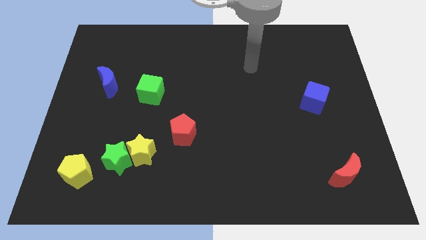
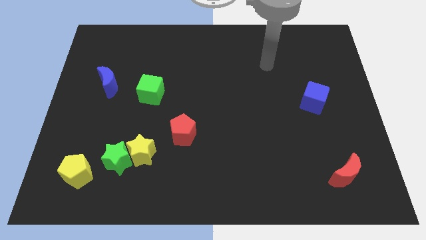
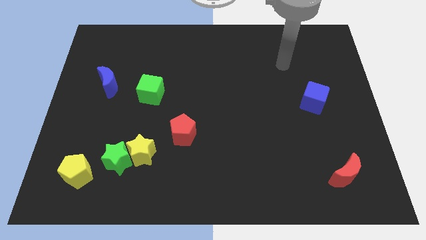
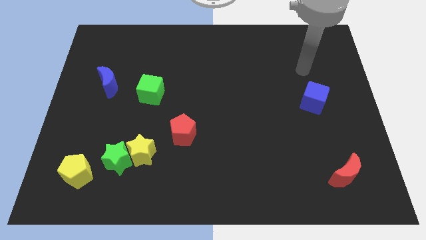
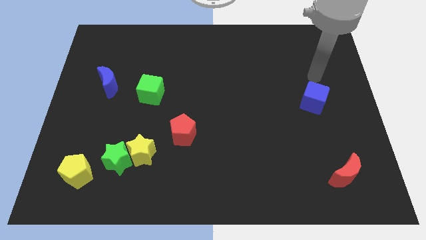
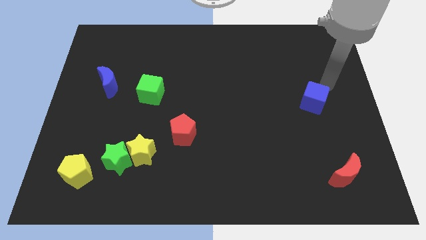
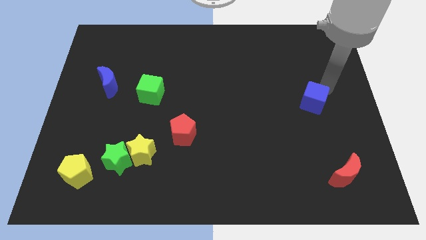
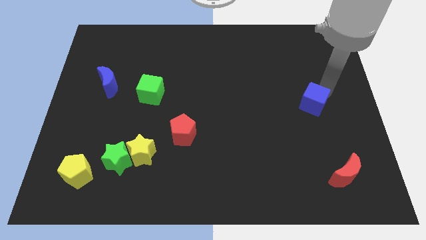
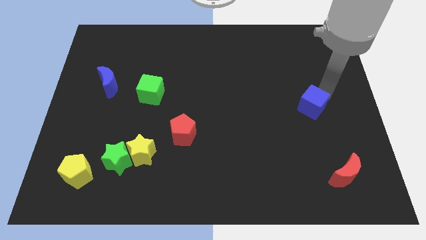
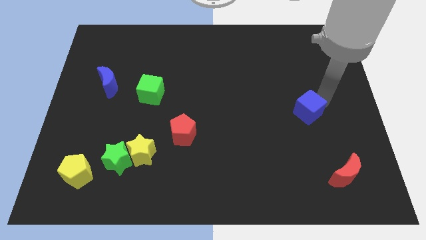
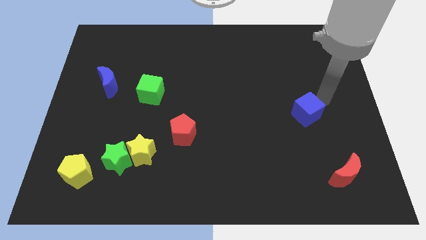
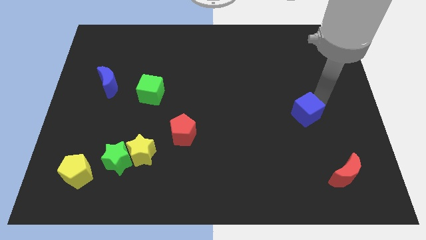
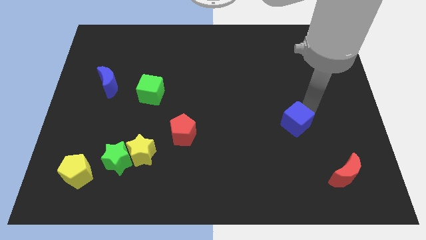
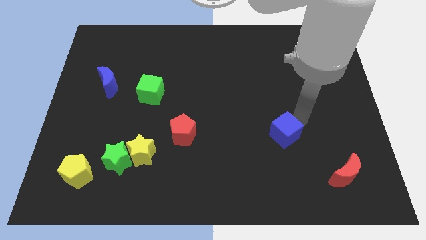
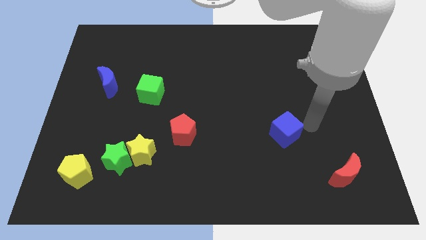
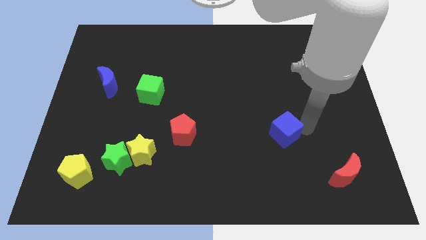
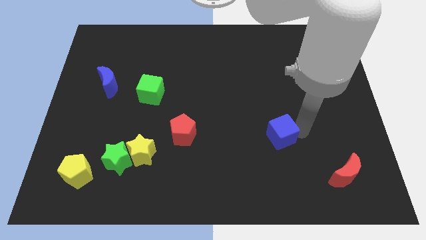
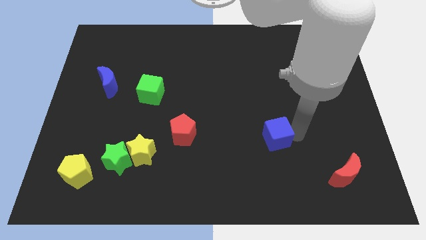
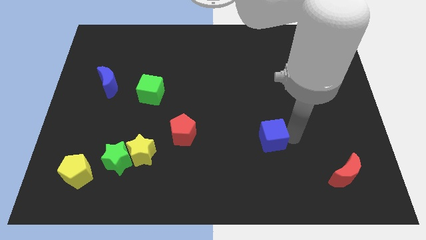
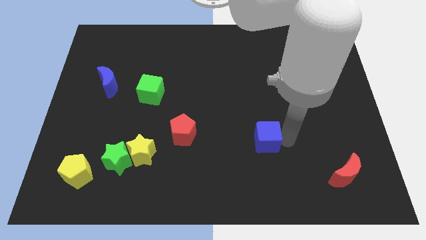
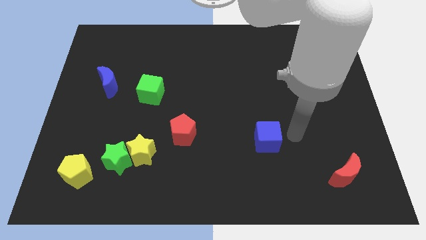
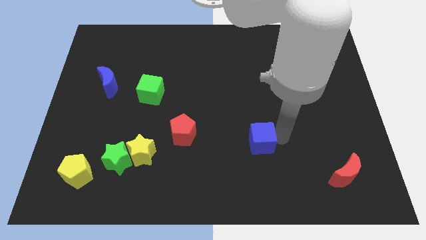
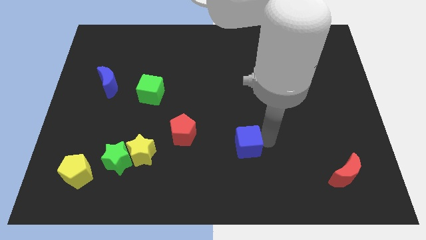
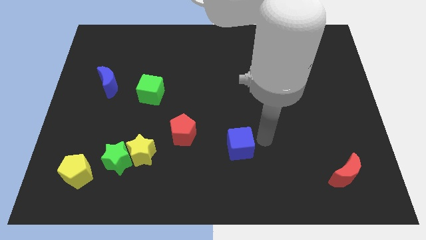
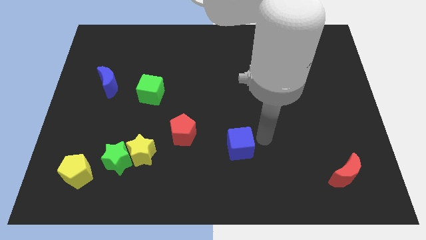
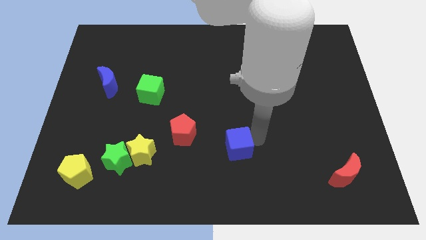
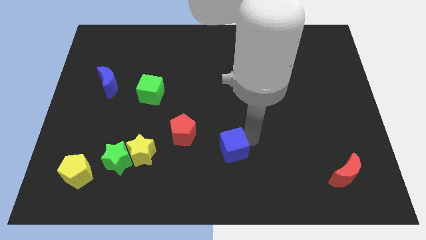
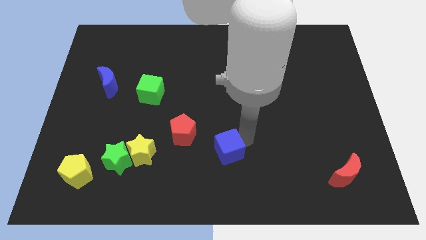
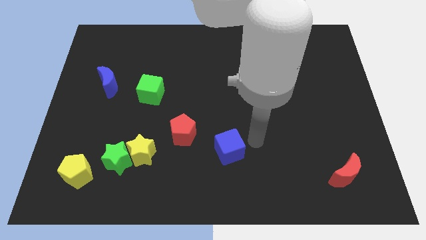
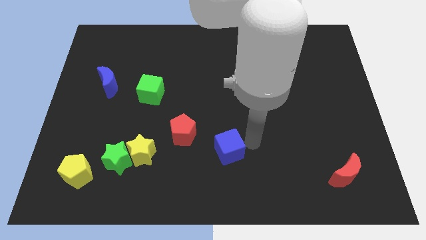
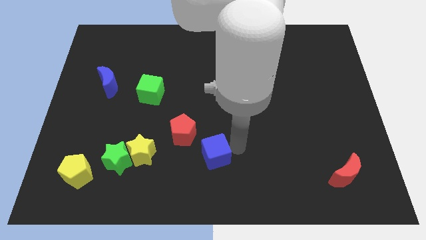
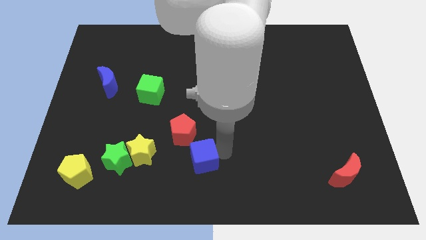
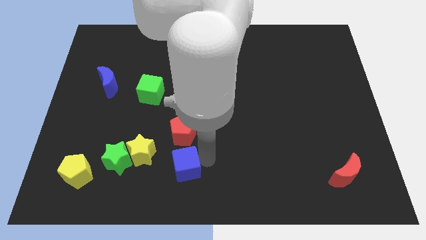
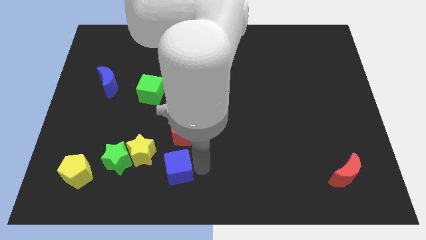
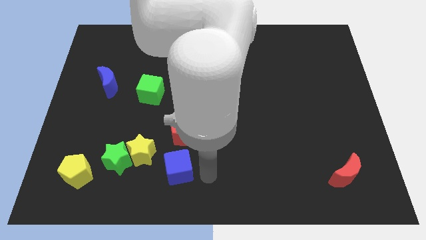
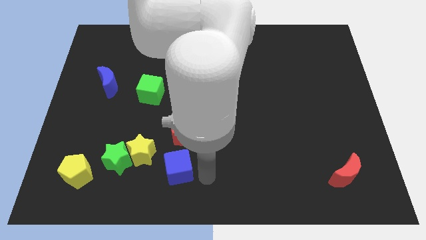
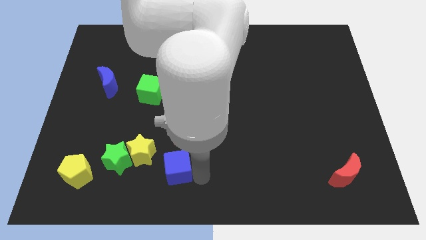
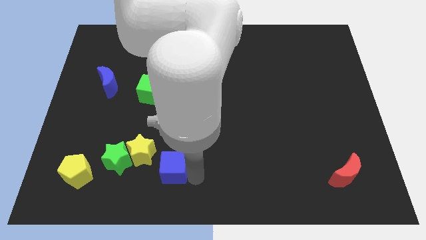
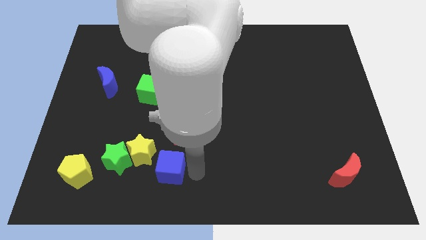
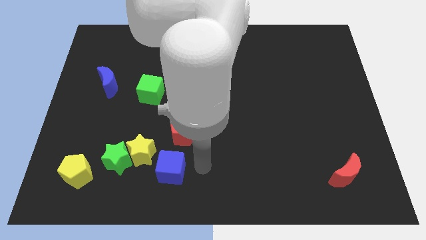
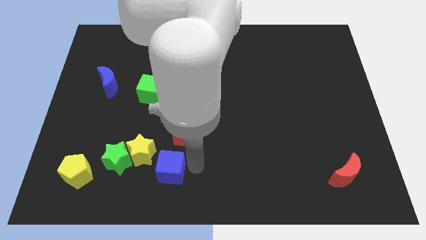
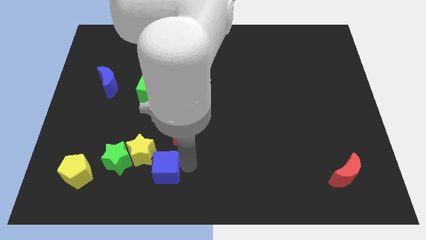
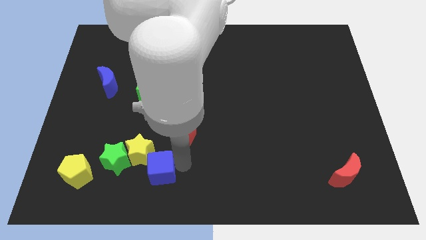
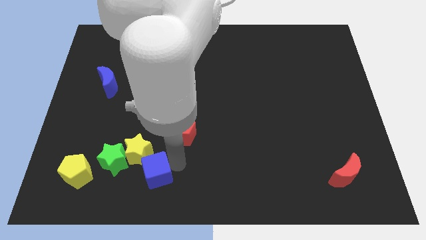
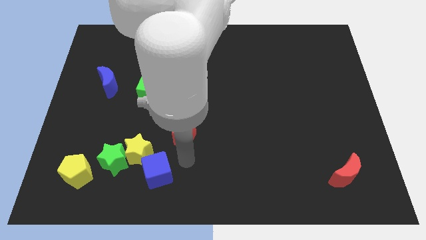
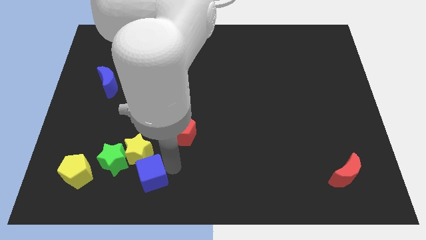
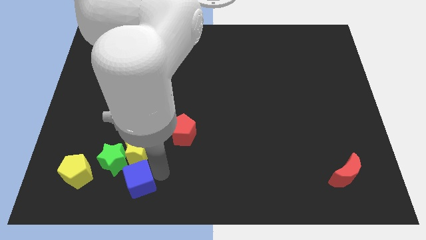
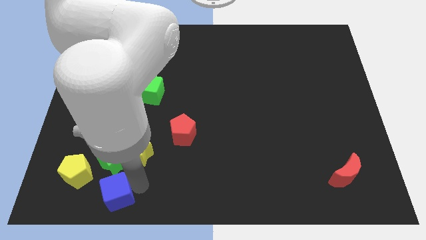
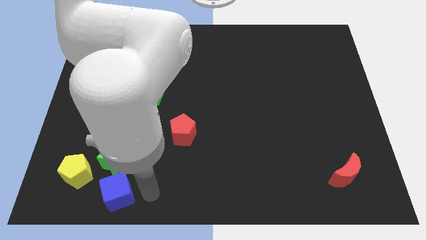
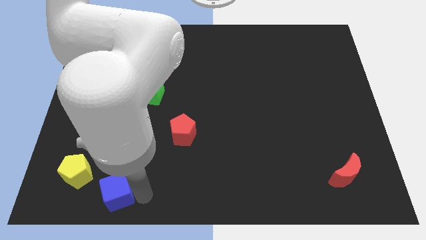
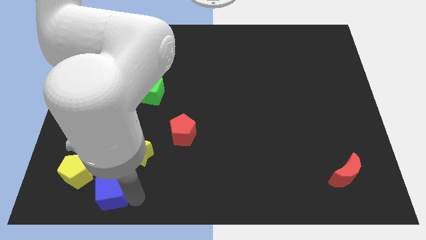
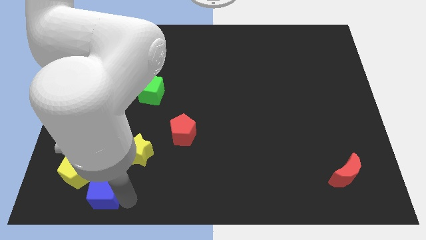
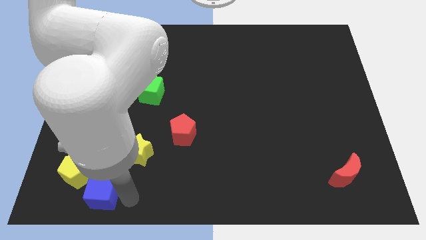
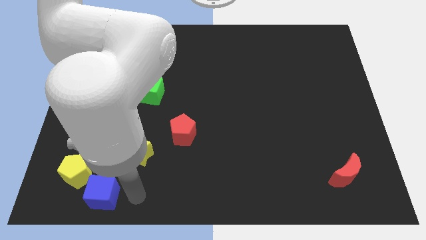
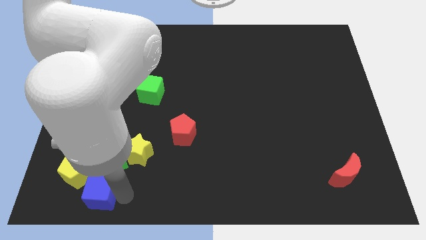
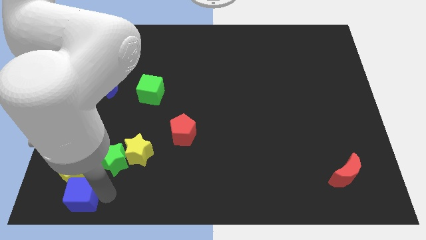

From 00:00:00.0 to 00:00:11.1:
move the blue cube to the bottom left

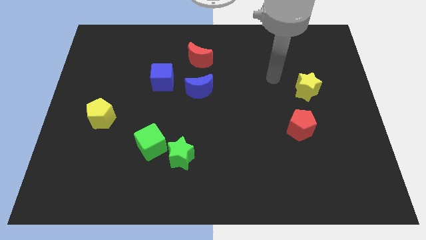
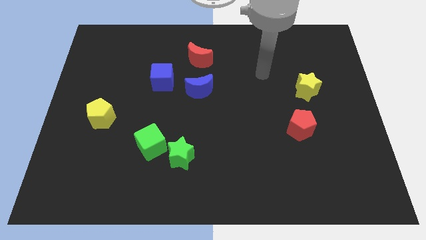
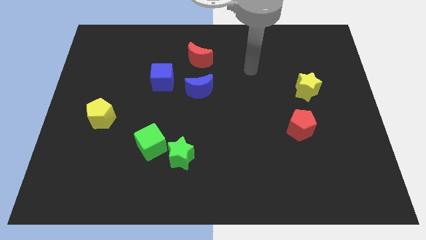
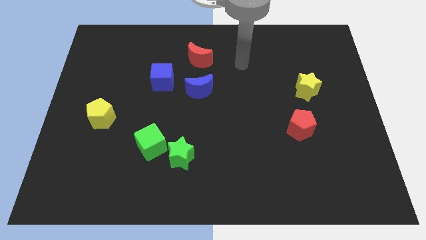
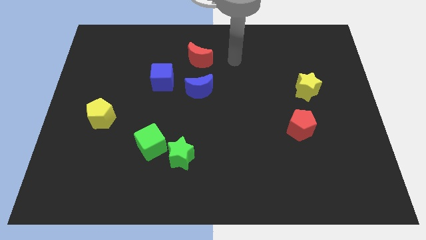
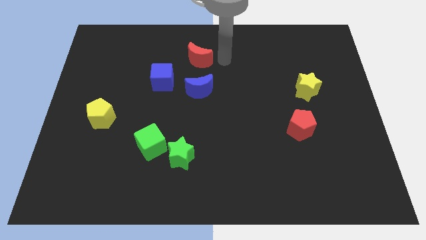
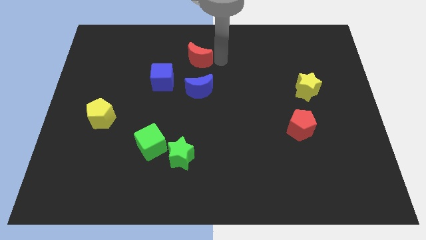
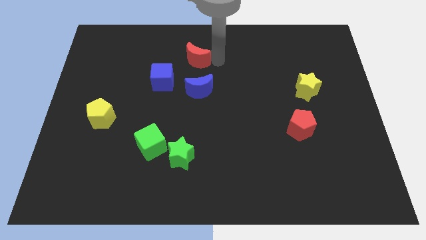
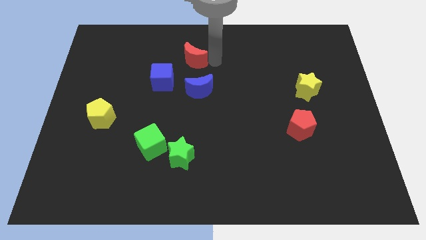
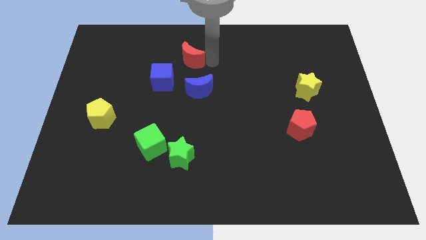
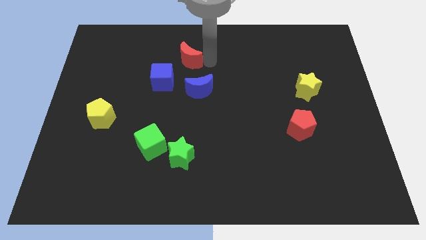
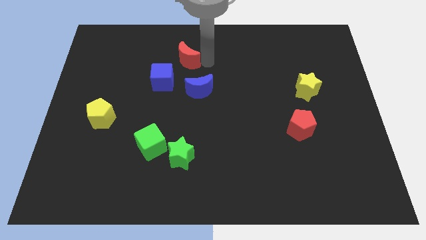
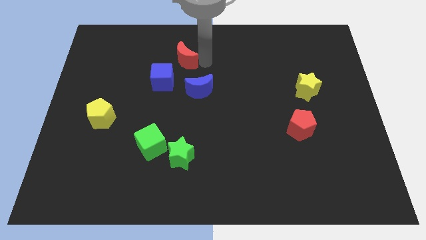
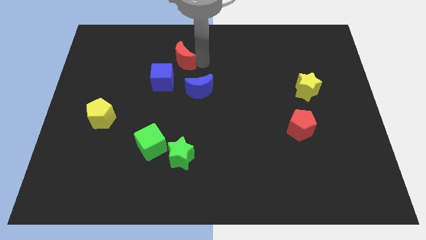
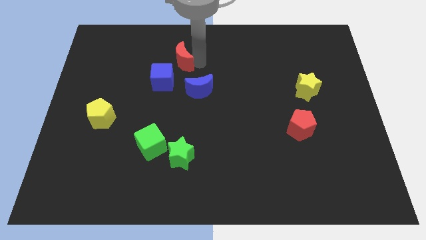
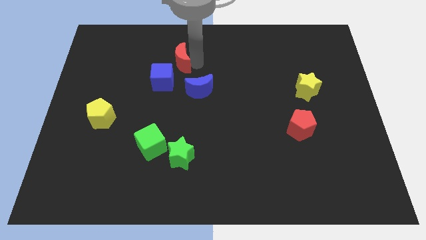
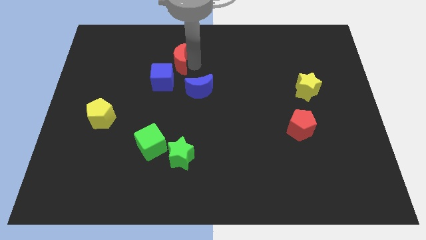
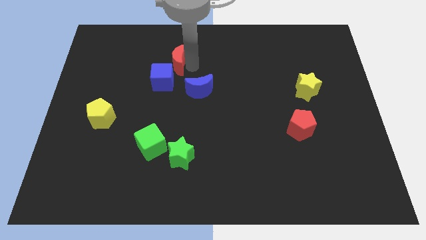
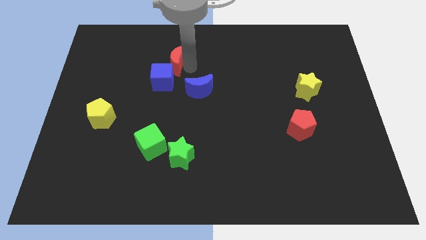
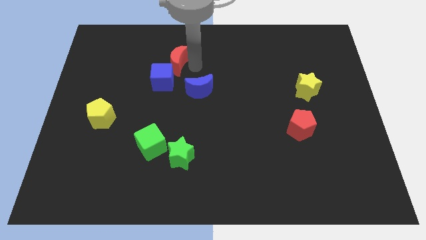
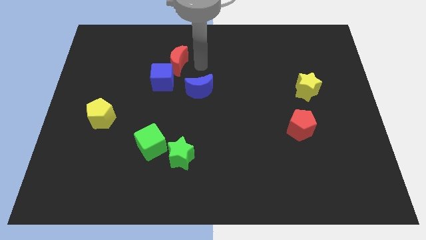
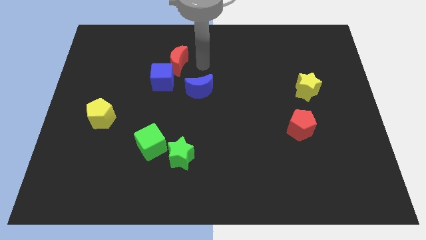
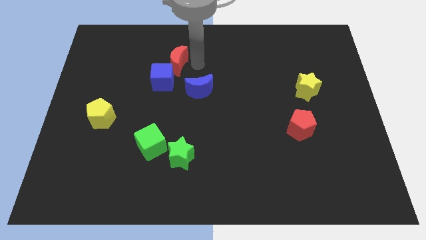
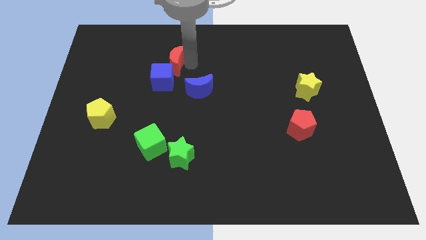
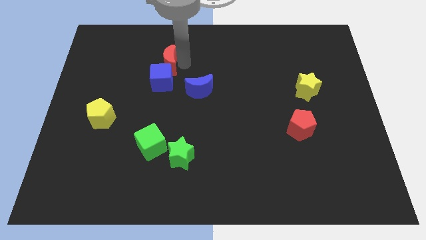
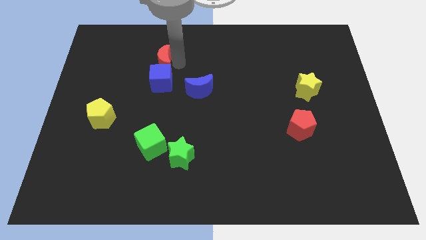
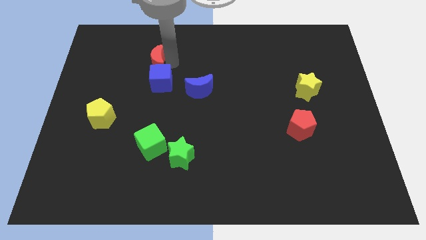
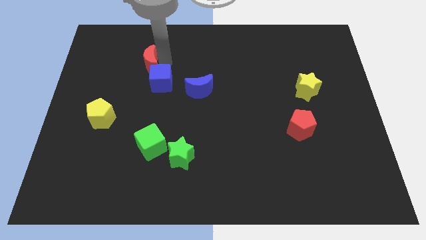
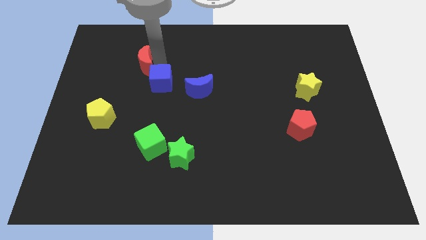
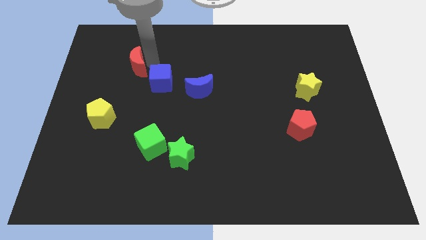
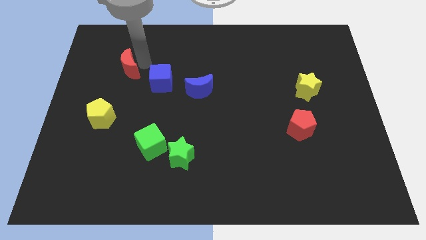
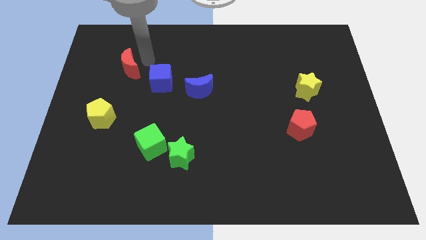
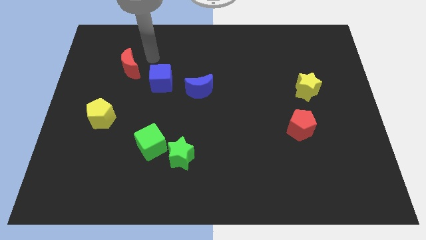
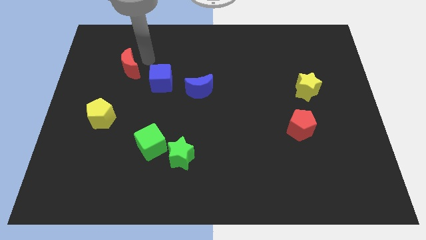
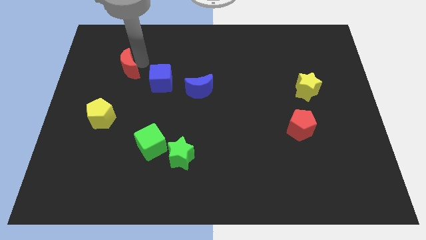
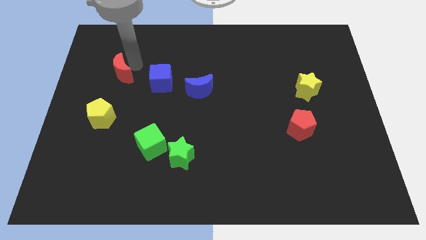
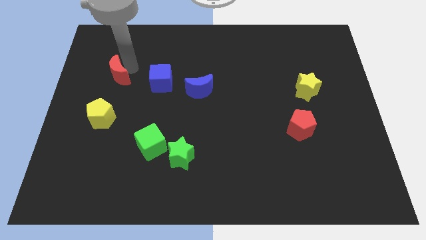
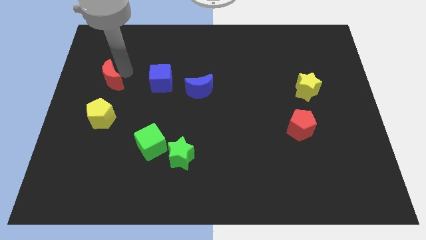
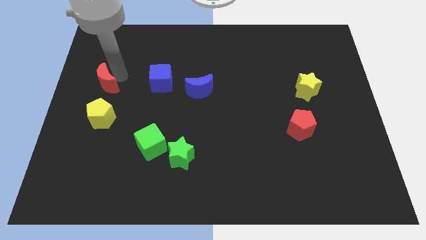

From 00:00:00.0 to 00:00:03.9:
put the red moon to the left side
